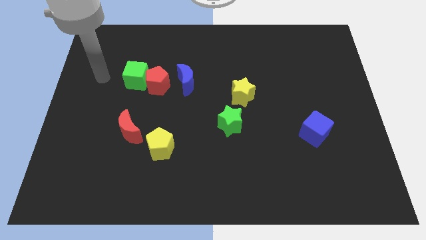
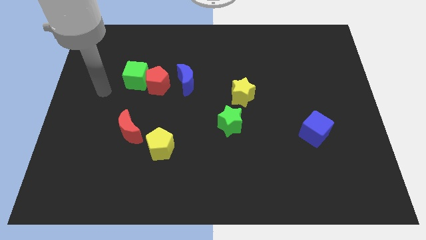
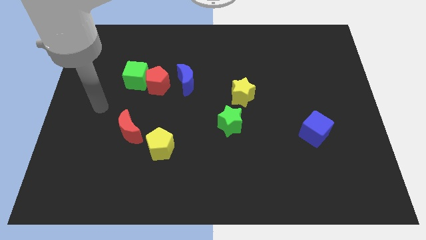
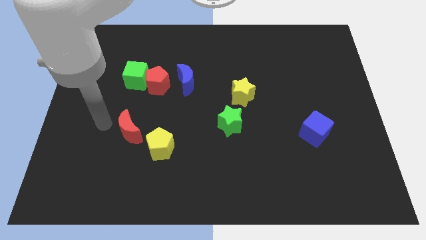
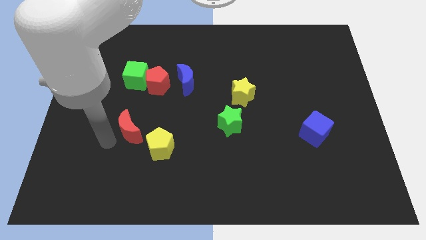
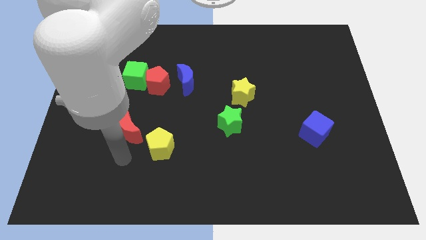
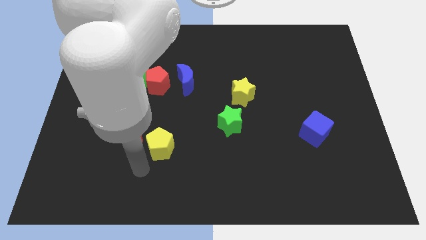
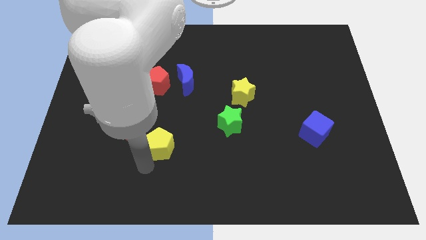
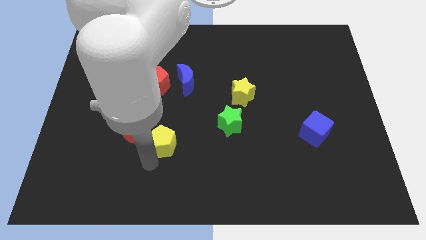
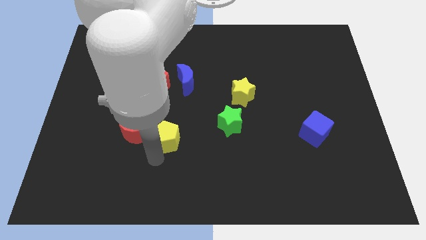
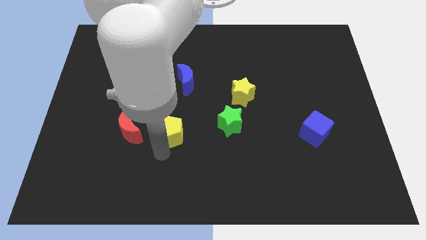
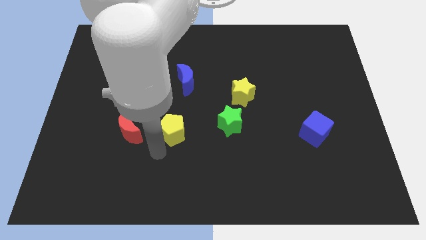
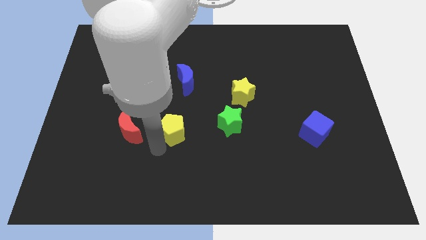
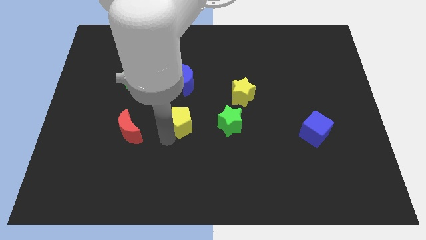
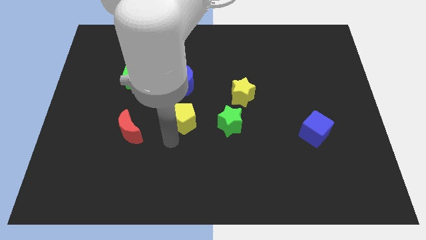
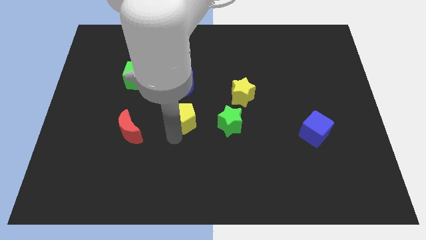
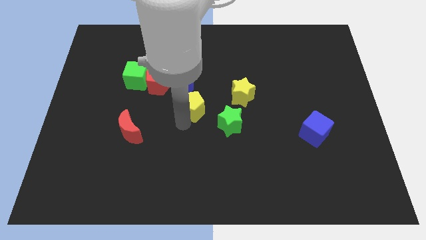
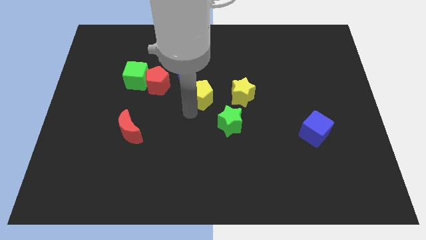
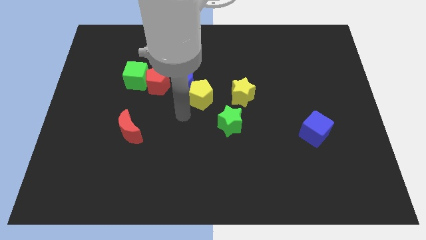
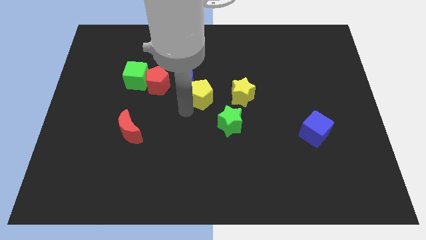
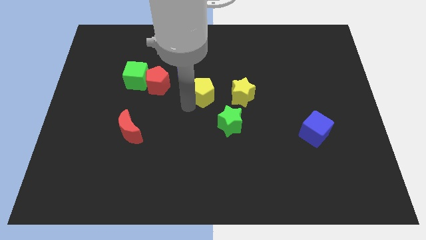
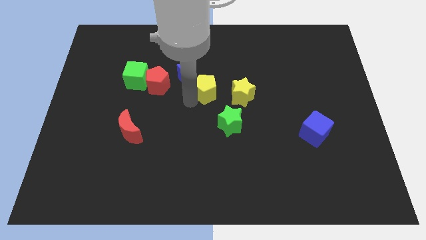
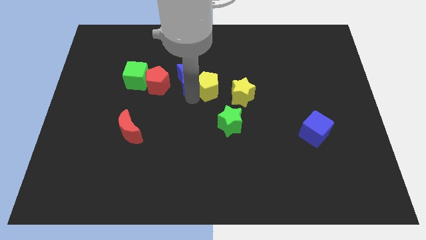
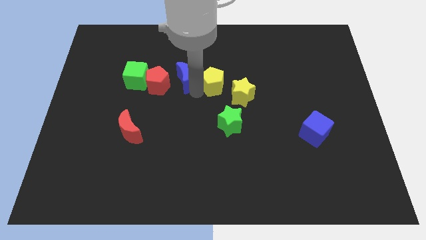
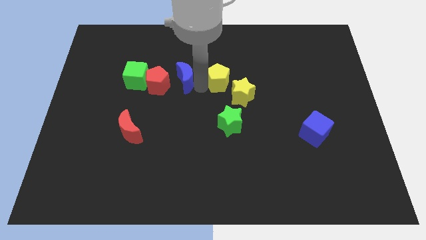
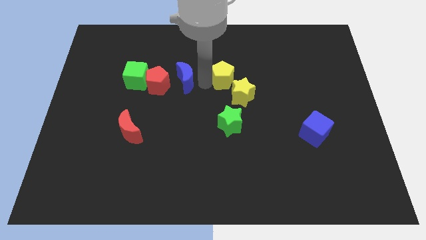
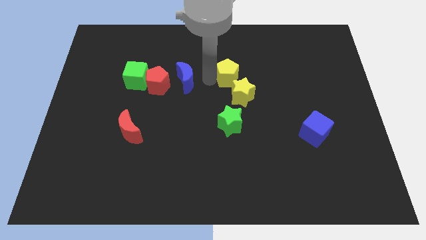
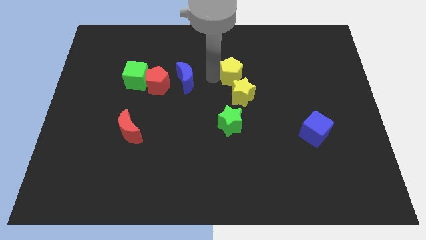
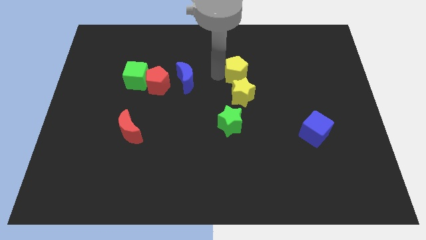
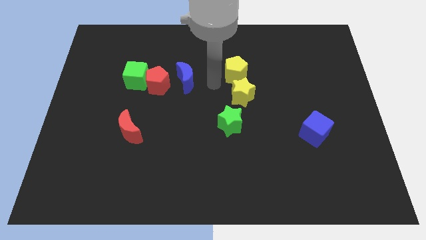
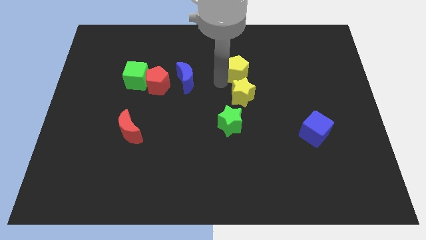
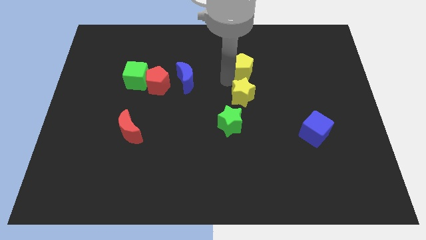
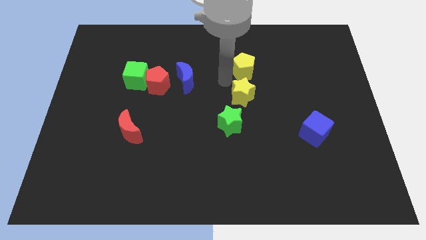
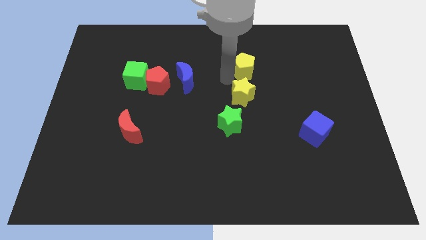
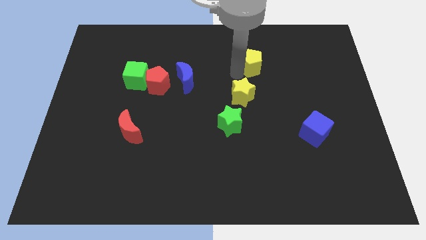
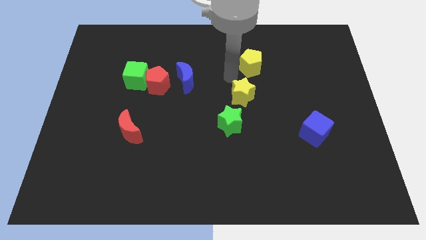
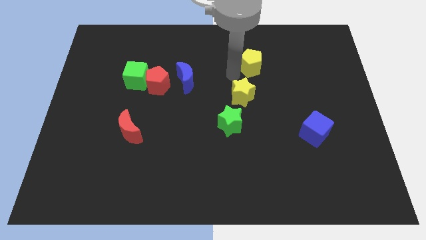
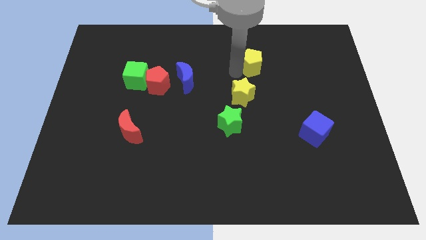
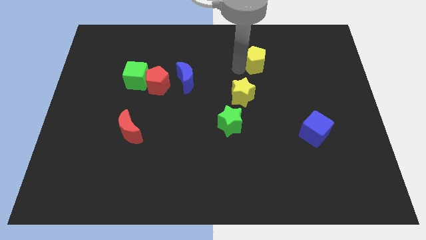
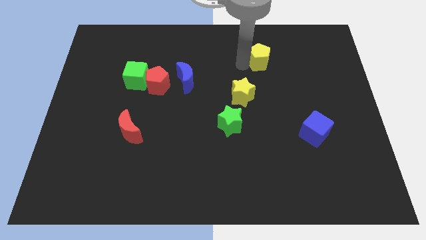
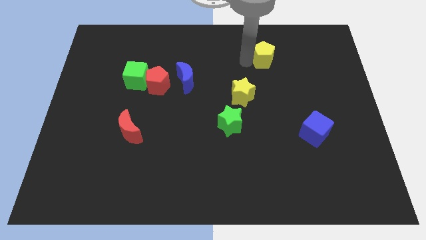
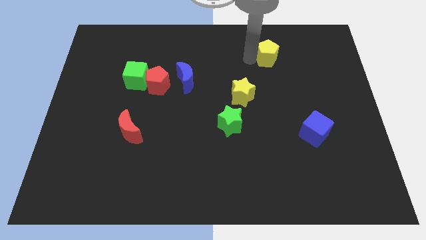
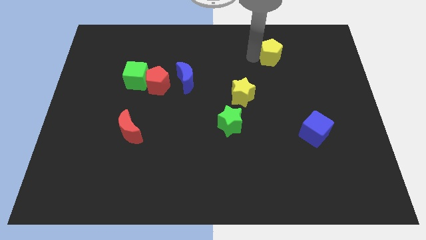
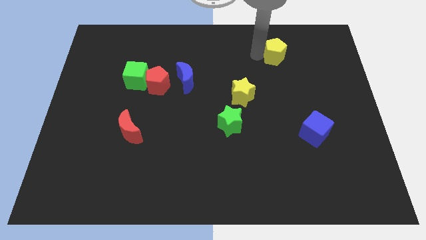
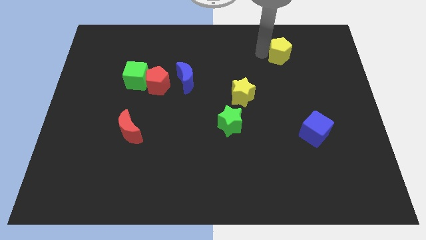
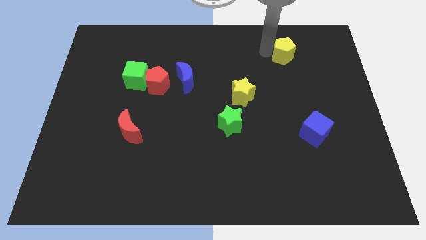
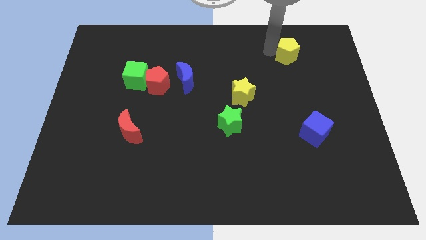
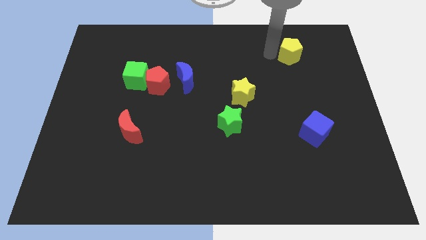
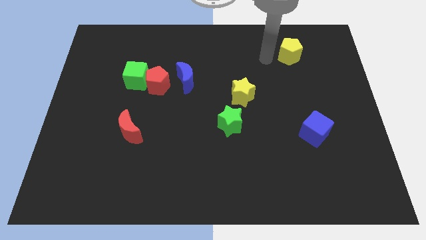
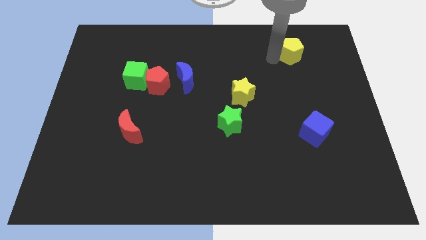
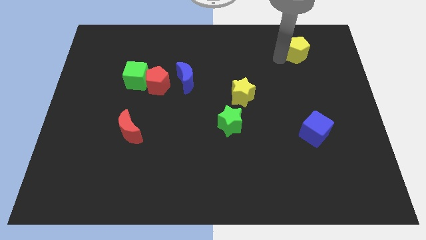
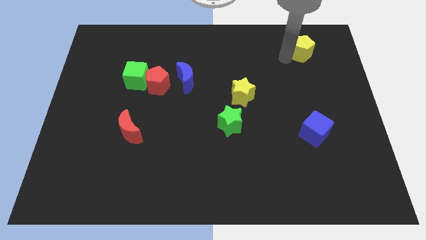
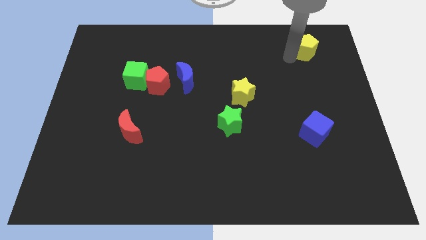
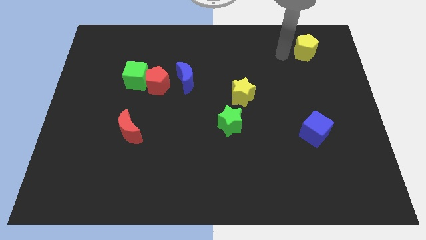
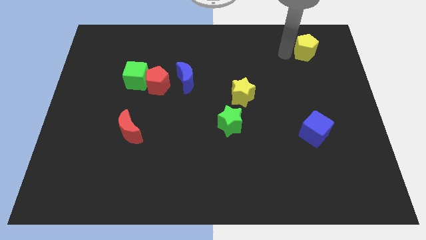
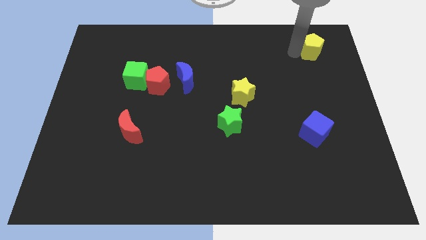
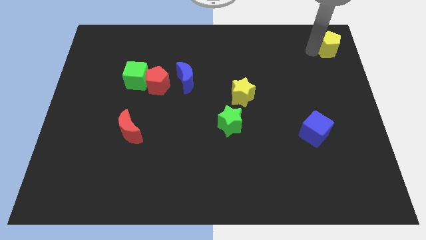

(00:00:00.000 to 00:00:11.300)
put the yellow pentagon to the top right of the board
